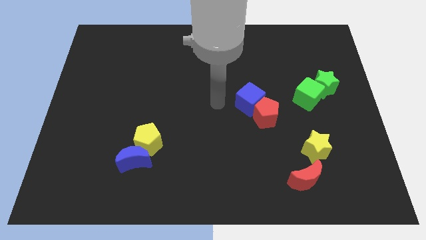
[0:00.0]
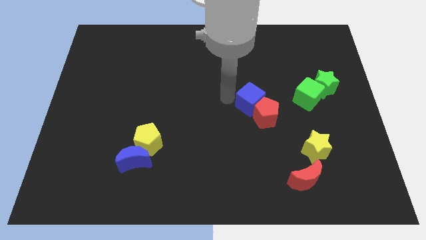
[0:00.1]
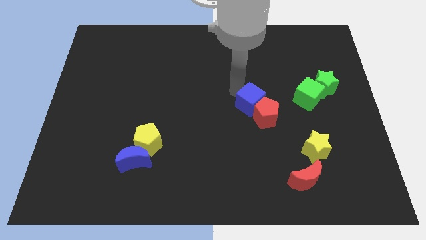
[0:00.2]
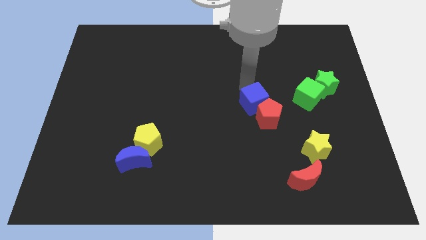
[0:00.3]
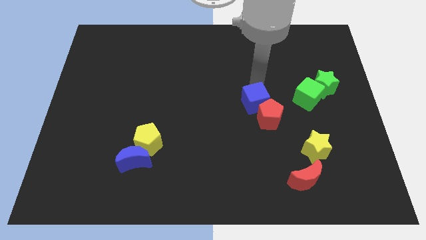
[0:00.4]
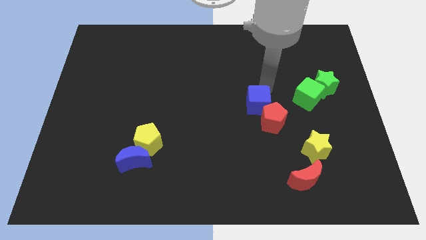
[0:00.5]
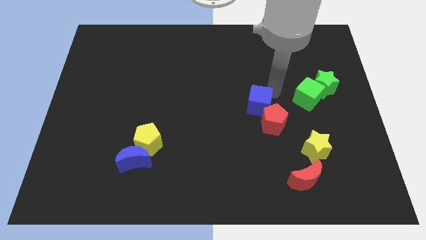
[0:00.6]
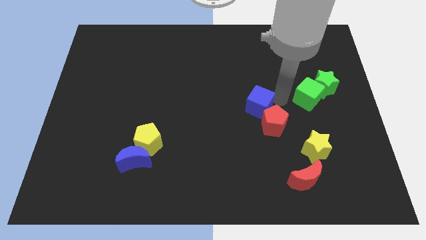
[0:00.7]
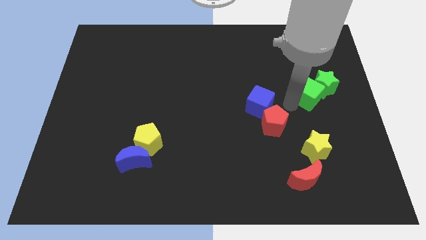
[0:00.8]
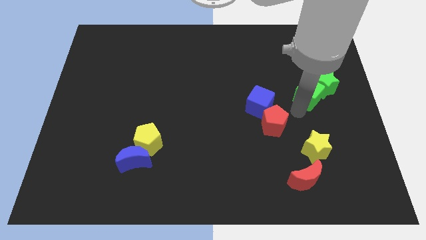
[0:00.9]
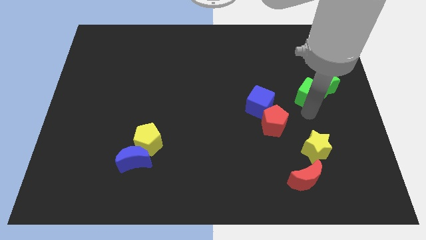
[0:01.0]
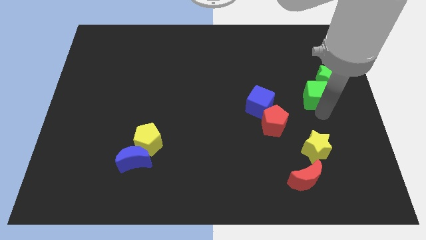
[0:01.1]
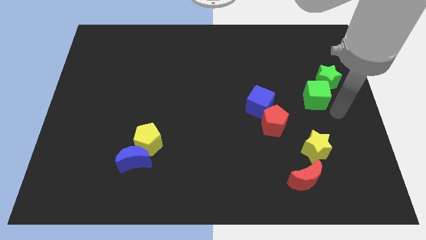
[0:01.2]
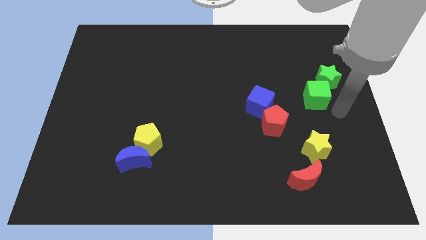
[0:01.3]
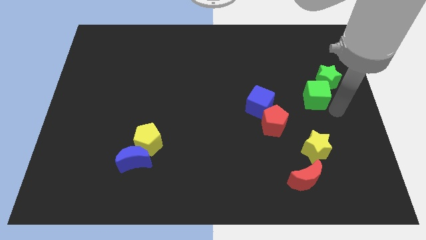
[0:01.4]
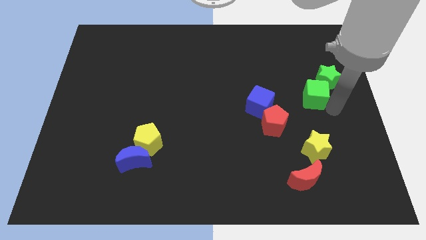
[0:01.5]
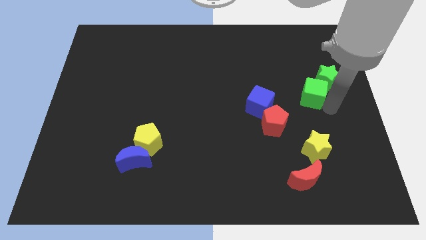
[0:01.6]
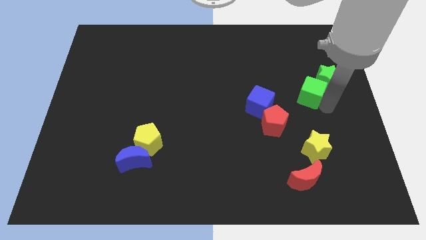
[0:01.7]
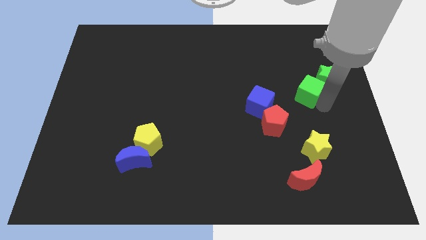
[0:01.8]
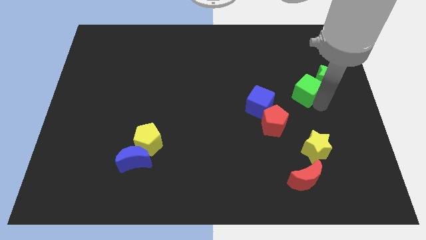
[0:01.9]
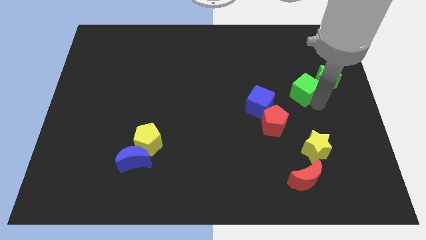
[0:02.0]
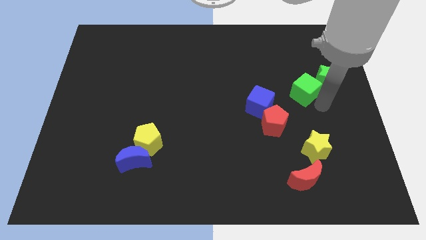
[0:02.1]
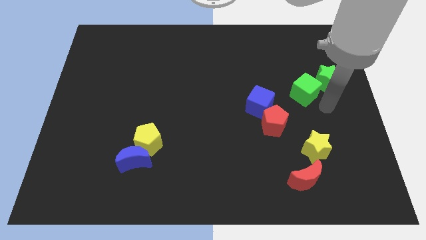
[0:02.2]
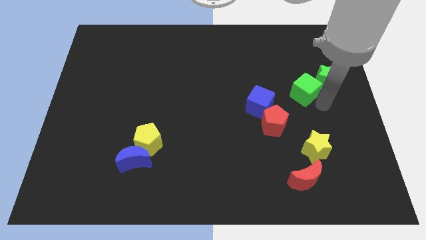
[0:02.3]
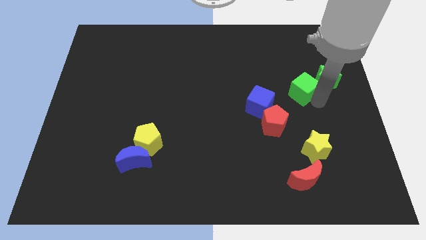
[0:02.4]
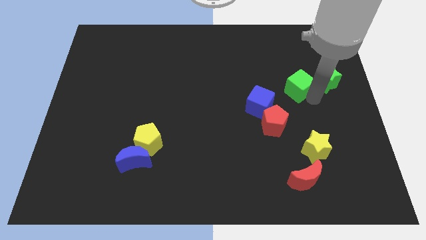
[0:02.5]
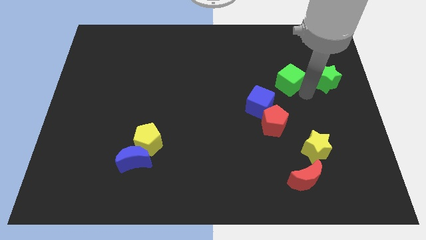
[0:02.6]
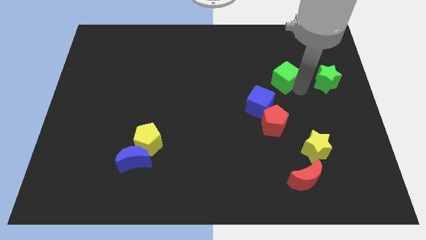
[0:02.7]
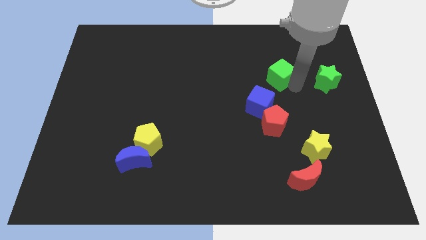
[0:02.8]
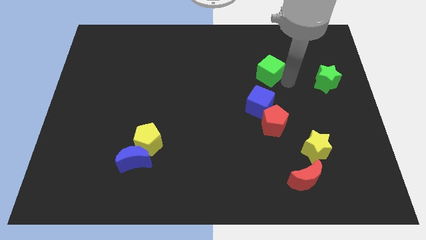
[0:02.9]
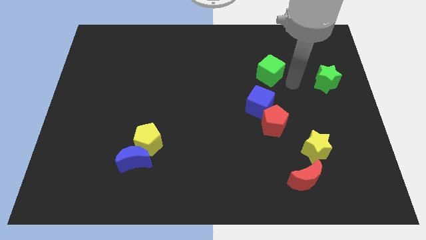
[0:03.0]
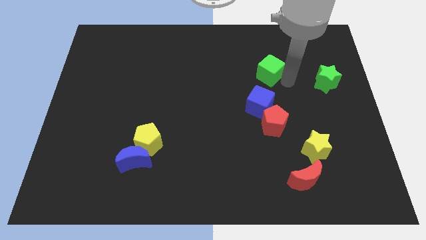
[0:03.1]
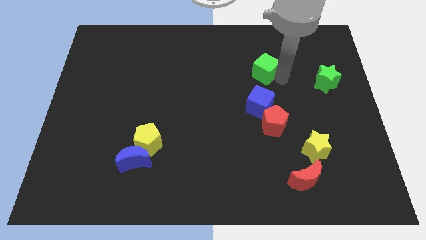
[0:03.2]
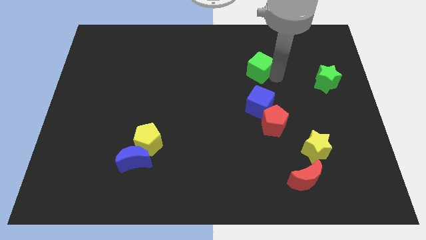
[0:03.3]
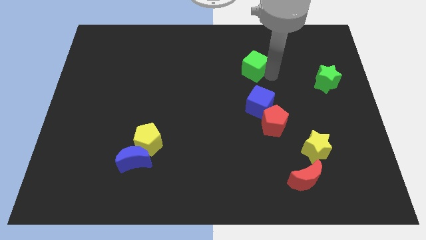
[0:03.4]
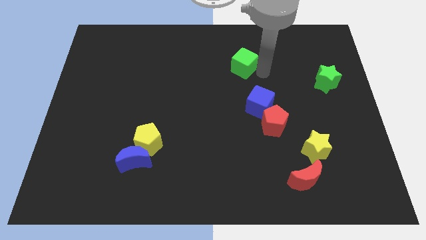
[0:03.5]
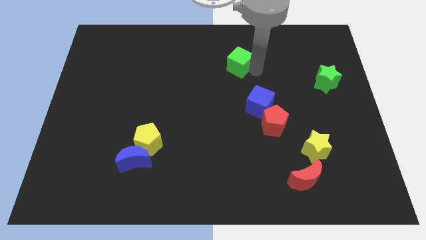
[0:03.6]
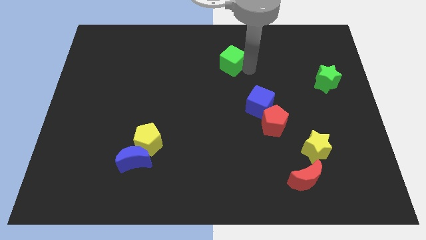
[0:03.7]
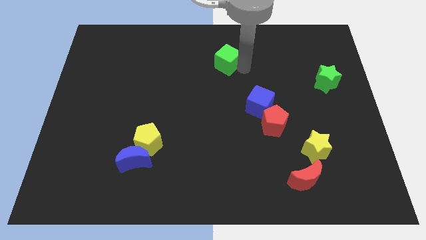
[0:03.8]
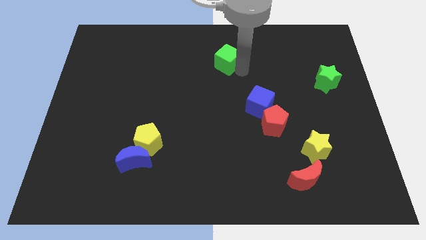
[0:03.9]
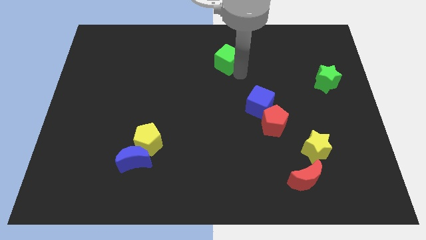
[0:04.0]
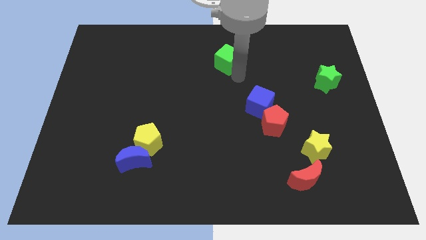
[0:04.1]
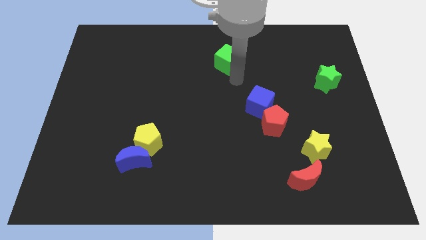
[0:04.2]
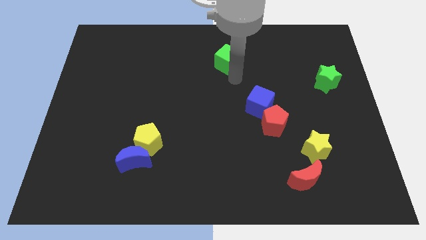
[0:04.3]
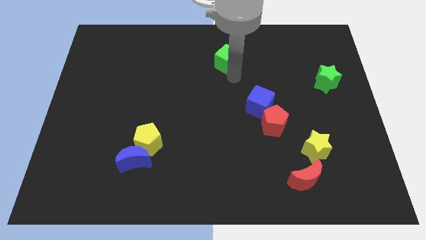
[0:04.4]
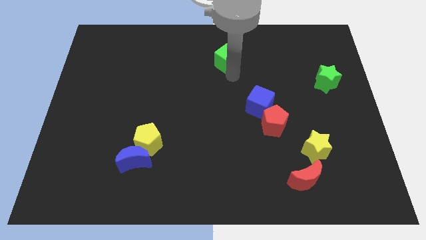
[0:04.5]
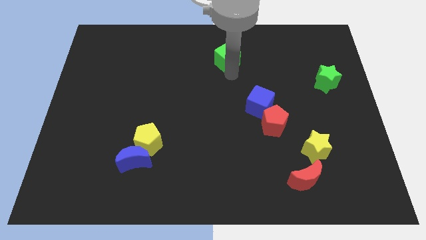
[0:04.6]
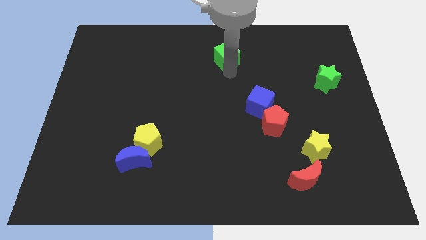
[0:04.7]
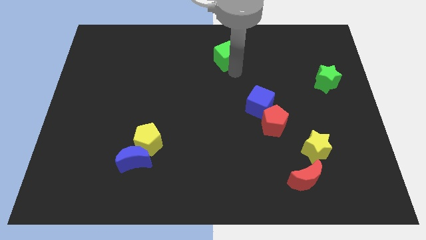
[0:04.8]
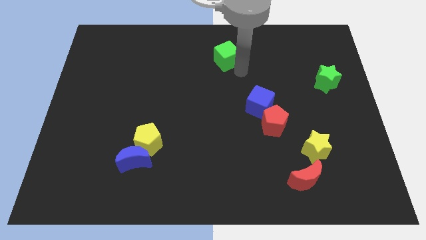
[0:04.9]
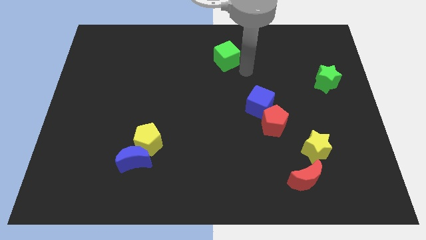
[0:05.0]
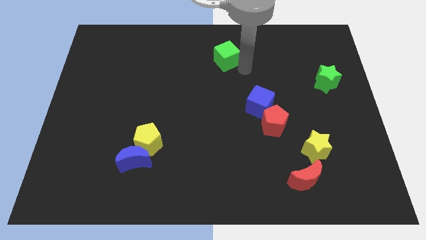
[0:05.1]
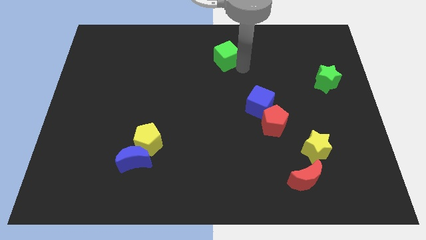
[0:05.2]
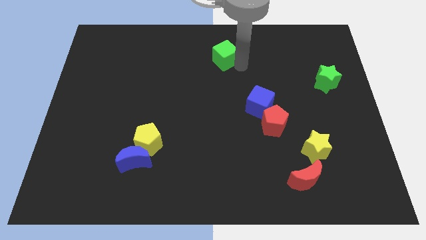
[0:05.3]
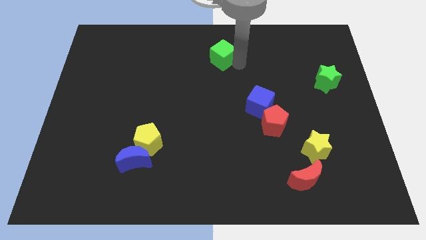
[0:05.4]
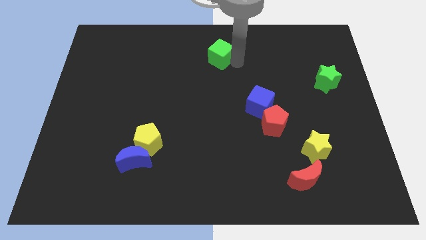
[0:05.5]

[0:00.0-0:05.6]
move the green cube to the top

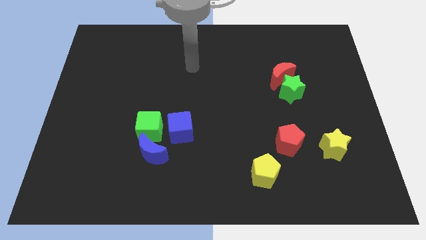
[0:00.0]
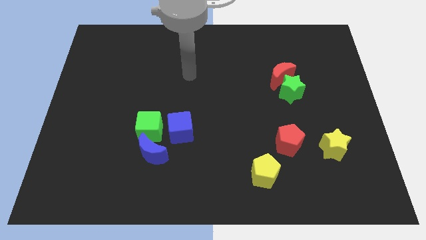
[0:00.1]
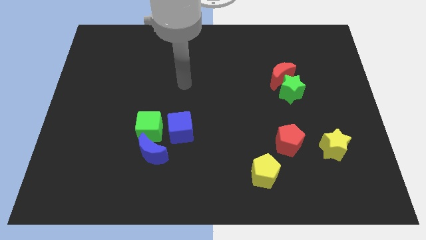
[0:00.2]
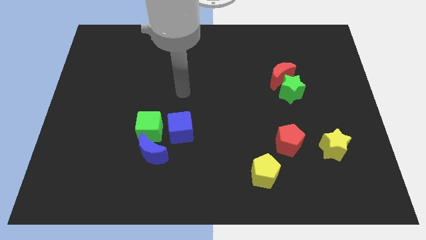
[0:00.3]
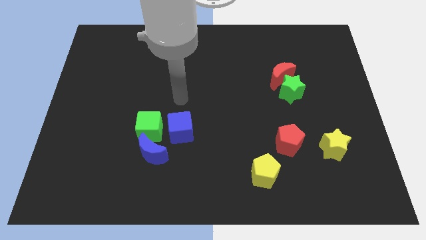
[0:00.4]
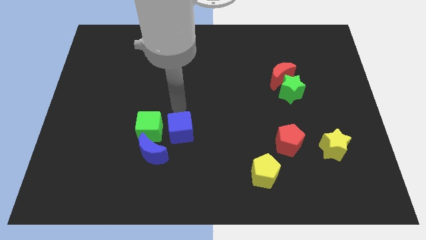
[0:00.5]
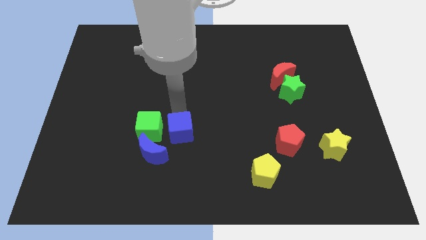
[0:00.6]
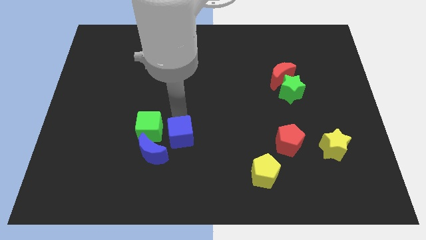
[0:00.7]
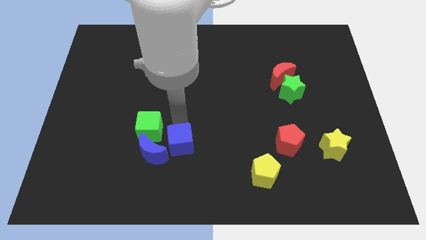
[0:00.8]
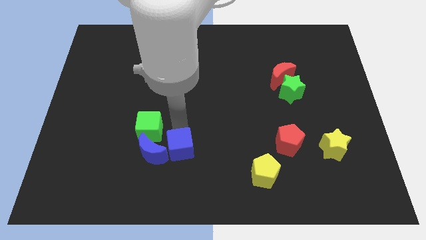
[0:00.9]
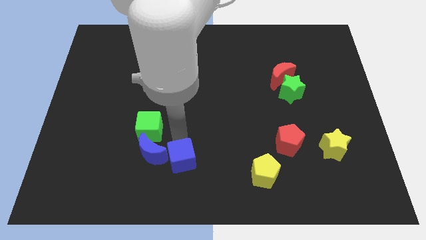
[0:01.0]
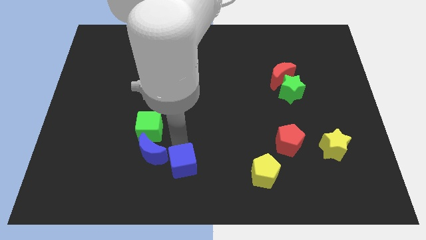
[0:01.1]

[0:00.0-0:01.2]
put the blue cube to the bottom
